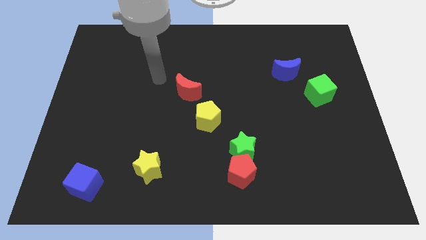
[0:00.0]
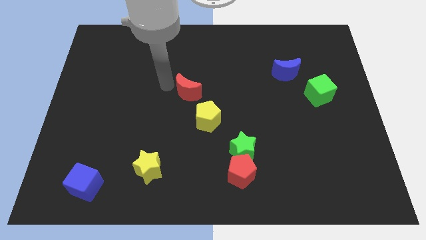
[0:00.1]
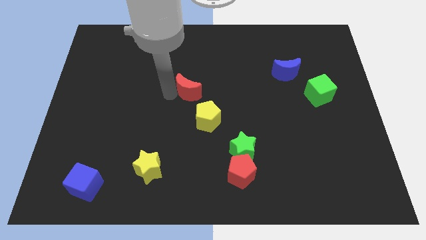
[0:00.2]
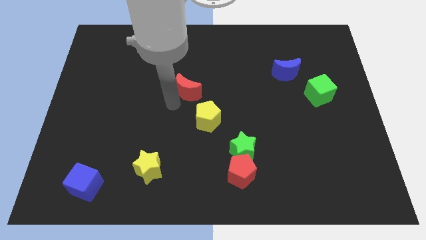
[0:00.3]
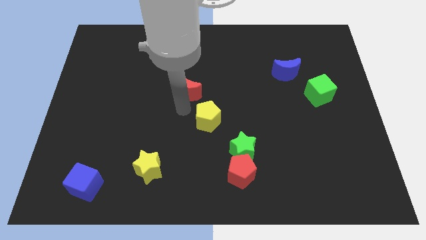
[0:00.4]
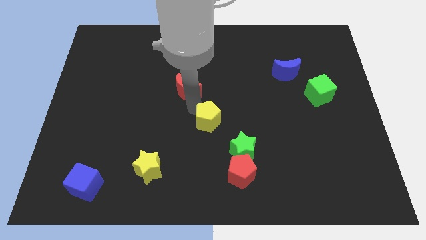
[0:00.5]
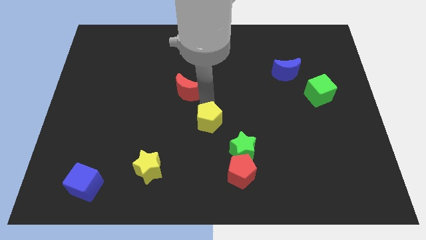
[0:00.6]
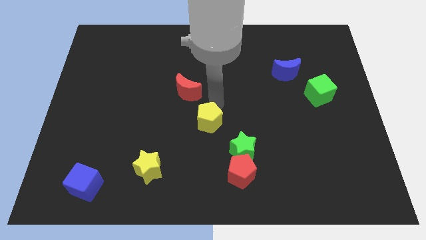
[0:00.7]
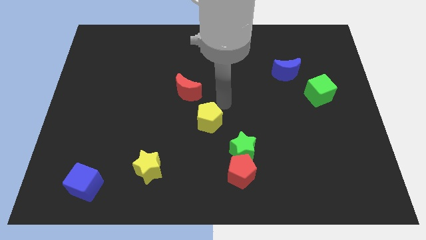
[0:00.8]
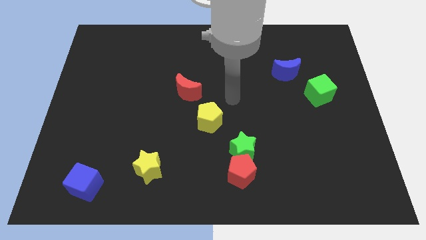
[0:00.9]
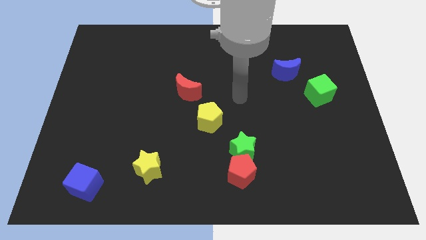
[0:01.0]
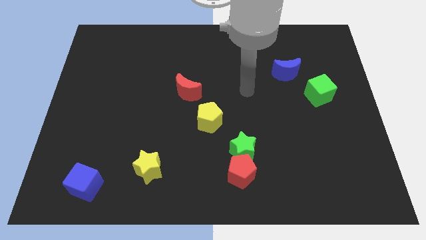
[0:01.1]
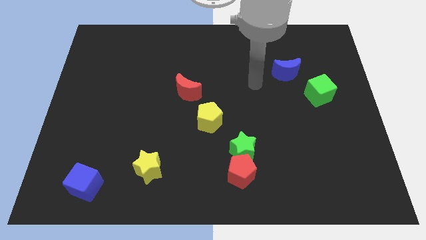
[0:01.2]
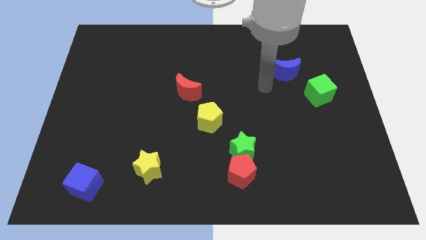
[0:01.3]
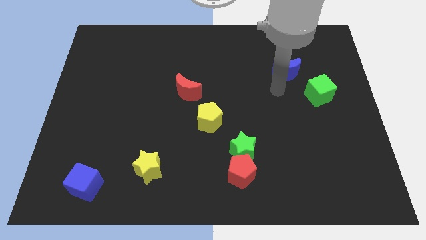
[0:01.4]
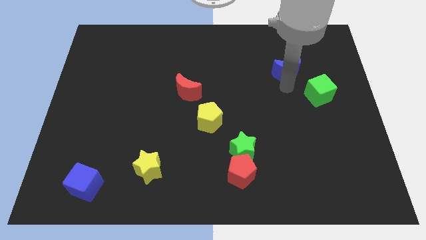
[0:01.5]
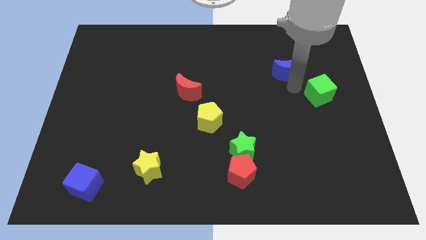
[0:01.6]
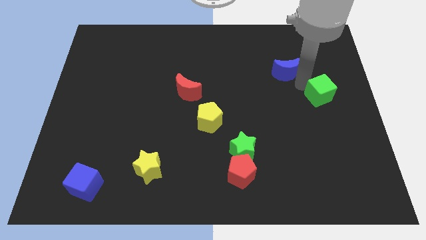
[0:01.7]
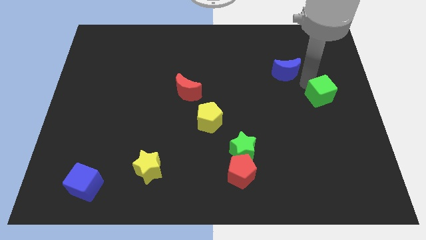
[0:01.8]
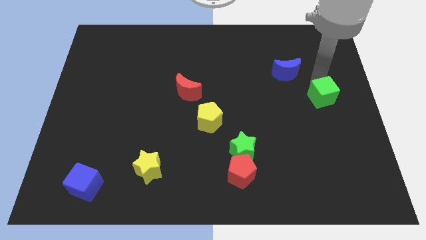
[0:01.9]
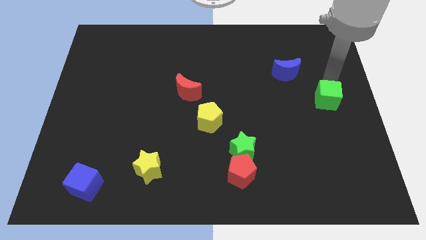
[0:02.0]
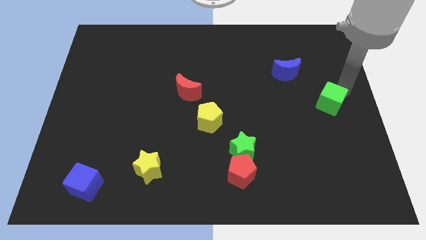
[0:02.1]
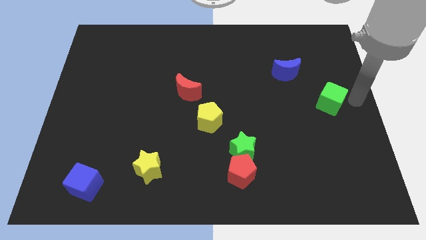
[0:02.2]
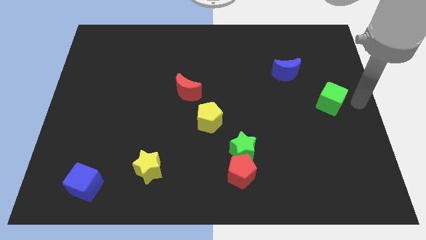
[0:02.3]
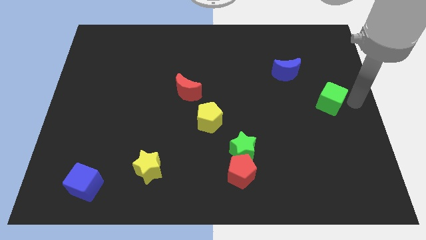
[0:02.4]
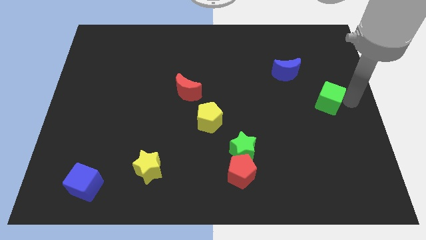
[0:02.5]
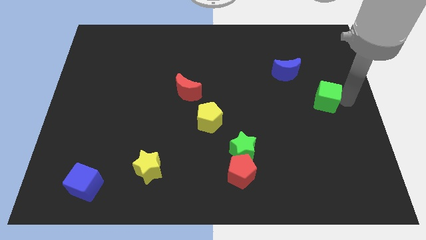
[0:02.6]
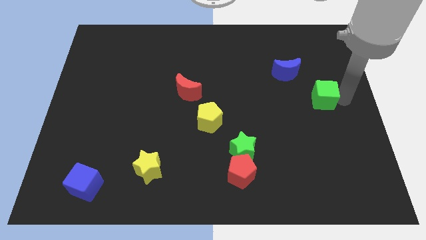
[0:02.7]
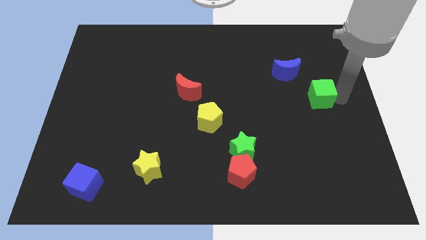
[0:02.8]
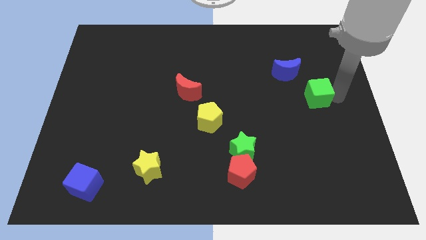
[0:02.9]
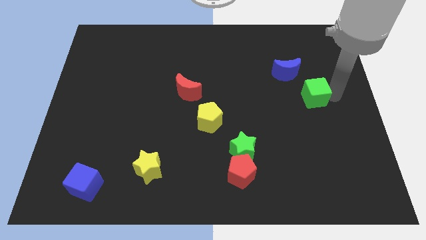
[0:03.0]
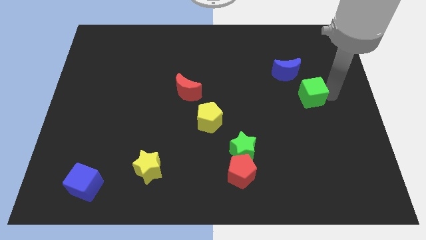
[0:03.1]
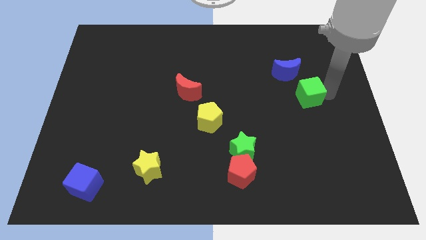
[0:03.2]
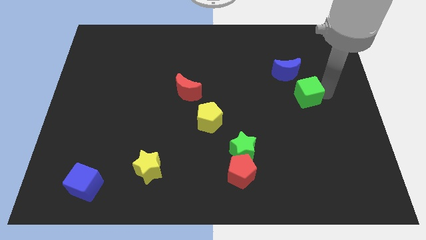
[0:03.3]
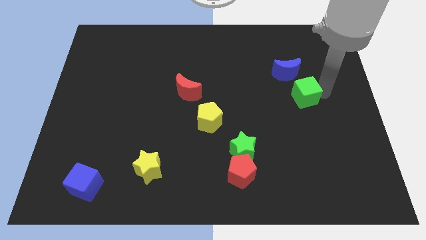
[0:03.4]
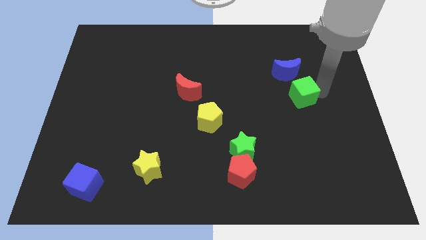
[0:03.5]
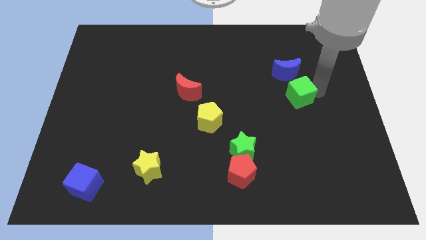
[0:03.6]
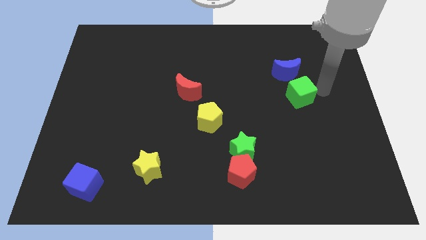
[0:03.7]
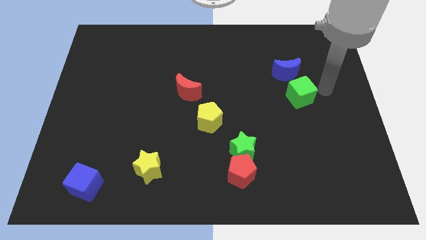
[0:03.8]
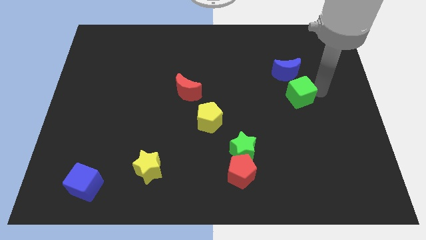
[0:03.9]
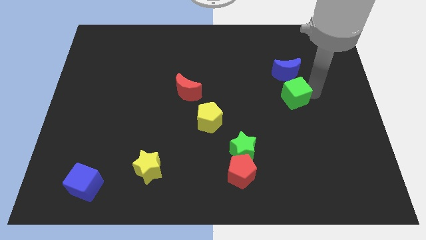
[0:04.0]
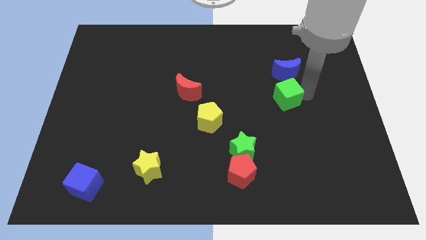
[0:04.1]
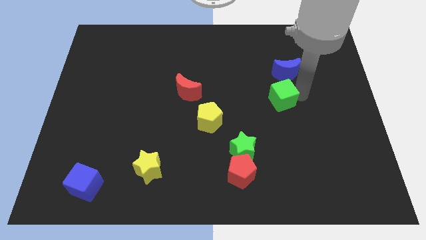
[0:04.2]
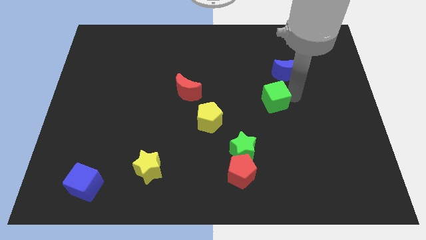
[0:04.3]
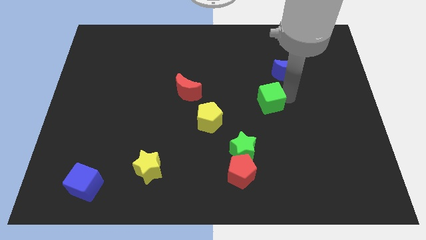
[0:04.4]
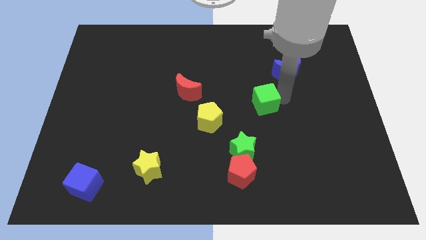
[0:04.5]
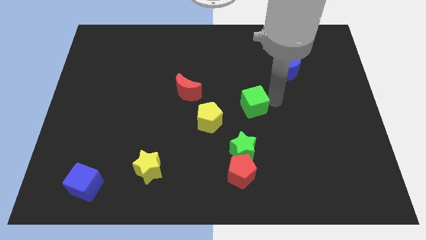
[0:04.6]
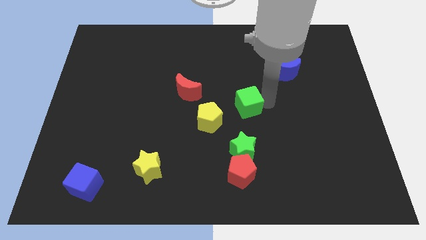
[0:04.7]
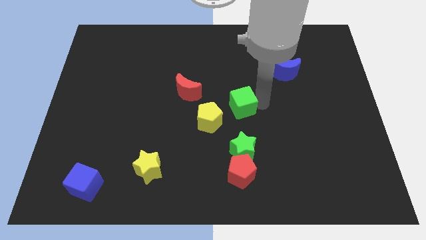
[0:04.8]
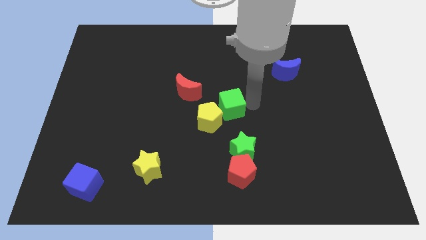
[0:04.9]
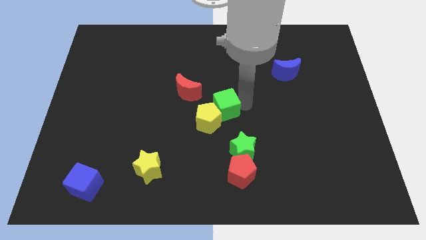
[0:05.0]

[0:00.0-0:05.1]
push the green cube towards the yellow pentagon

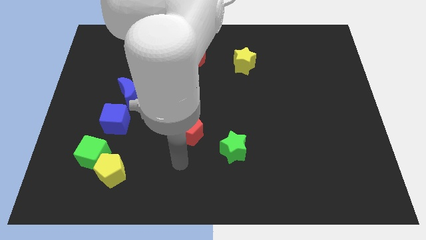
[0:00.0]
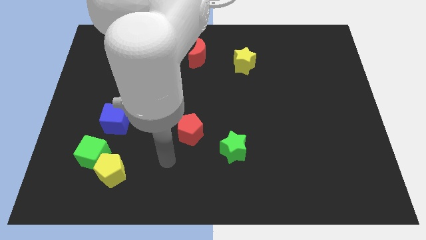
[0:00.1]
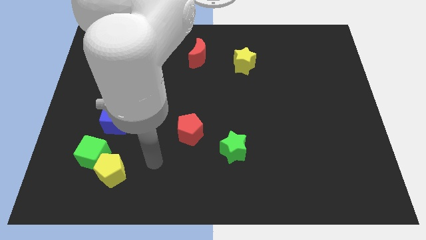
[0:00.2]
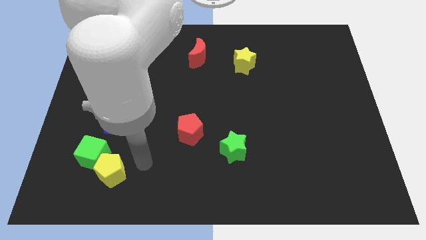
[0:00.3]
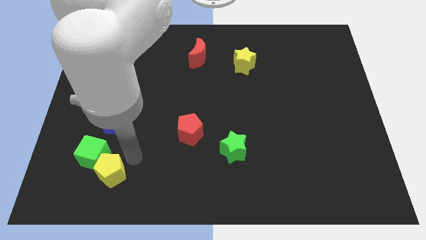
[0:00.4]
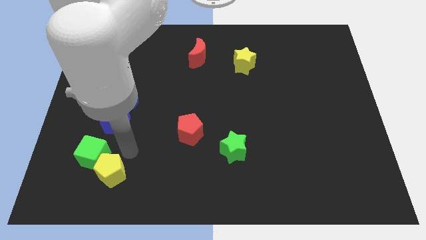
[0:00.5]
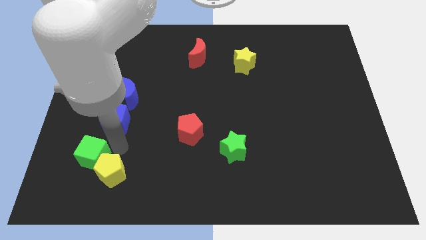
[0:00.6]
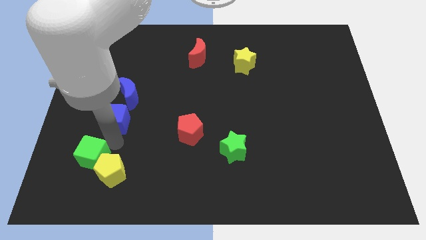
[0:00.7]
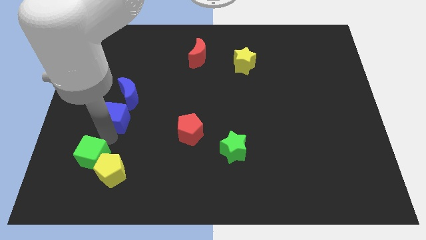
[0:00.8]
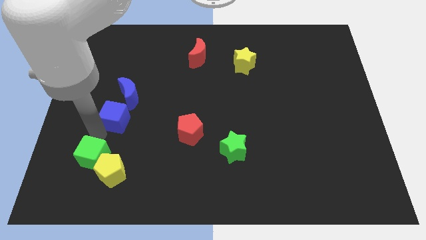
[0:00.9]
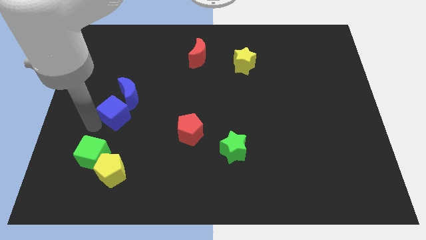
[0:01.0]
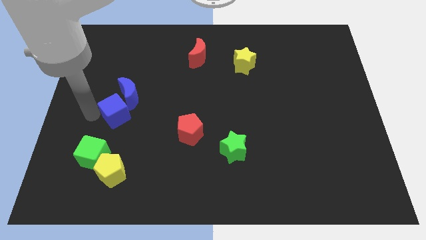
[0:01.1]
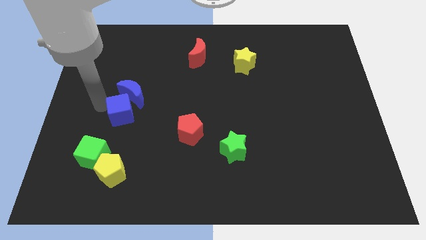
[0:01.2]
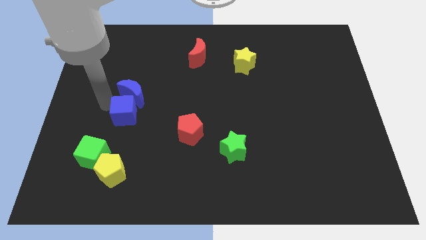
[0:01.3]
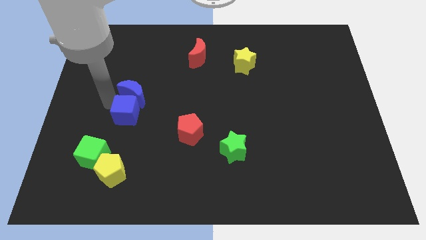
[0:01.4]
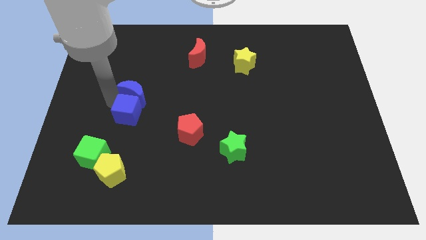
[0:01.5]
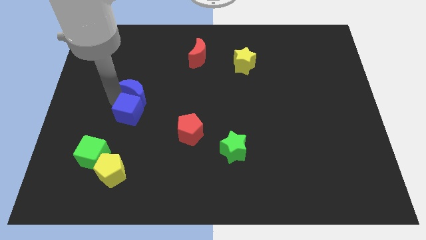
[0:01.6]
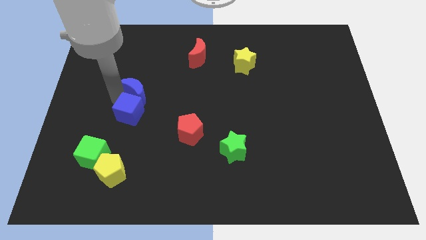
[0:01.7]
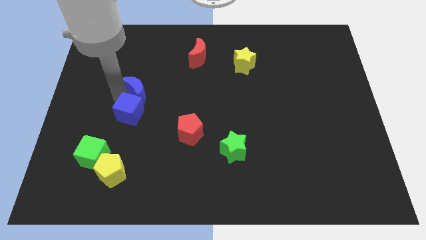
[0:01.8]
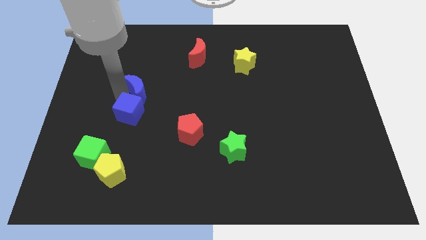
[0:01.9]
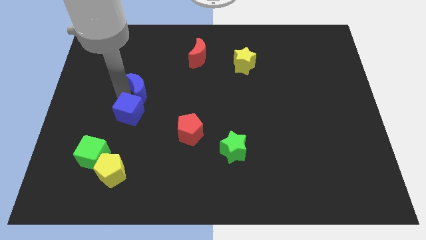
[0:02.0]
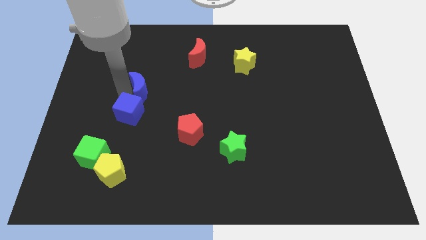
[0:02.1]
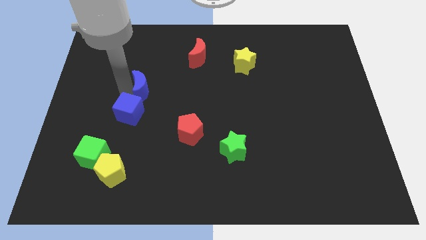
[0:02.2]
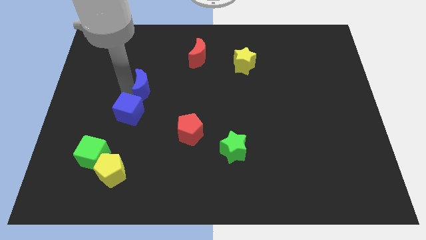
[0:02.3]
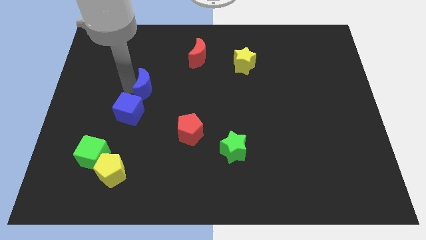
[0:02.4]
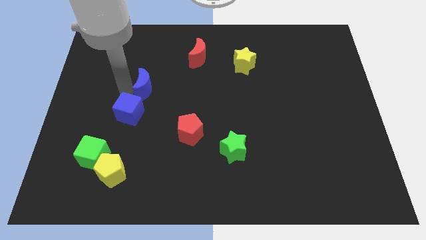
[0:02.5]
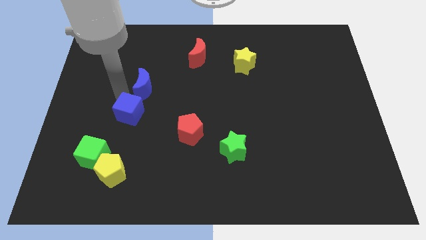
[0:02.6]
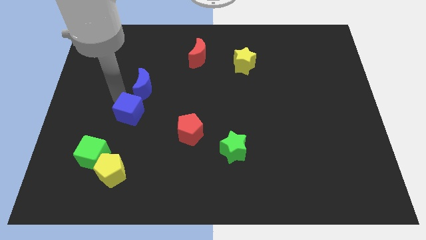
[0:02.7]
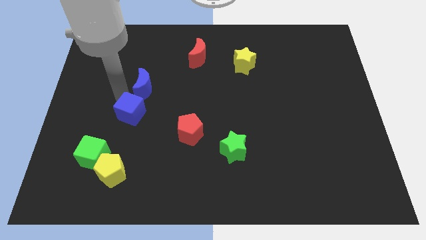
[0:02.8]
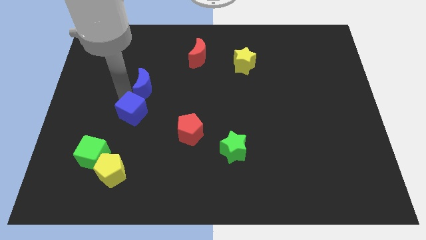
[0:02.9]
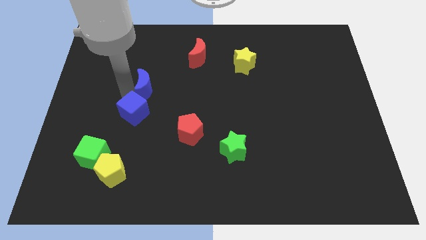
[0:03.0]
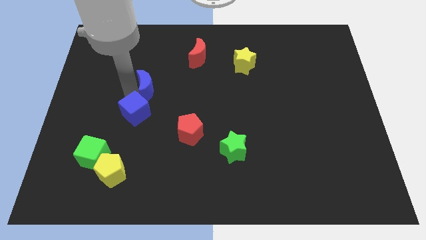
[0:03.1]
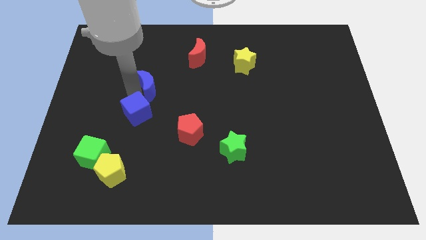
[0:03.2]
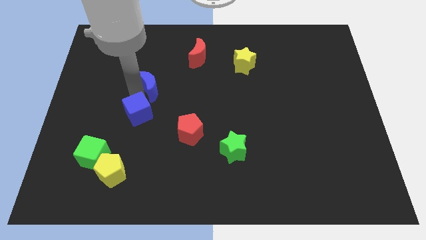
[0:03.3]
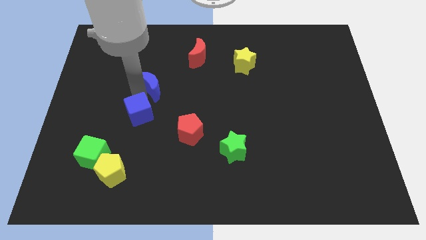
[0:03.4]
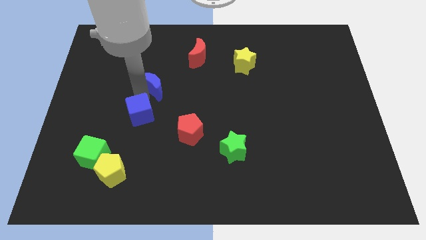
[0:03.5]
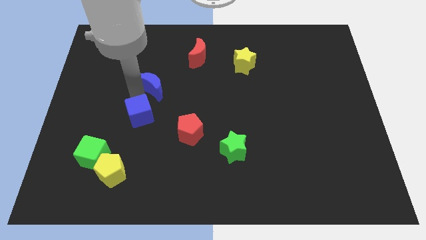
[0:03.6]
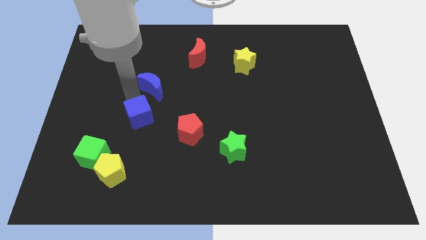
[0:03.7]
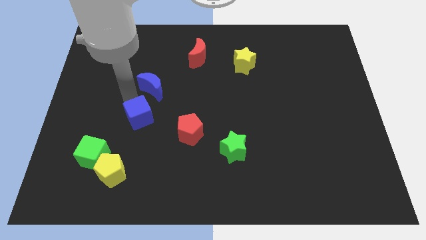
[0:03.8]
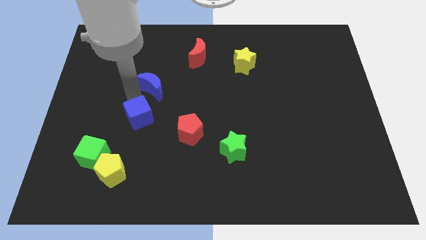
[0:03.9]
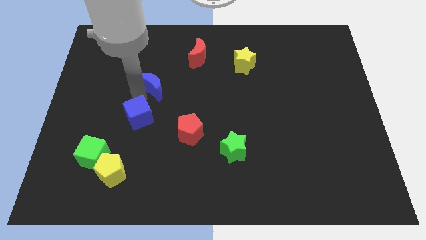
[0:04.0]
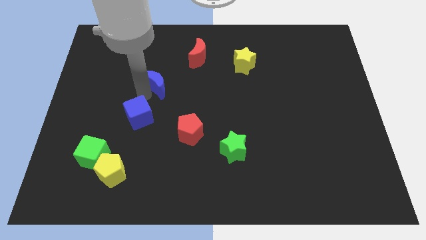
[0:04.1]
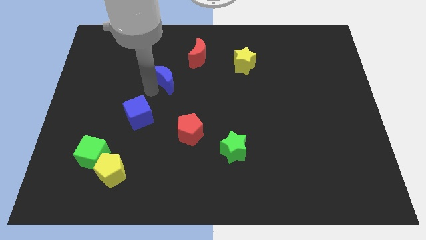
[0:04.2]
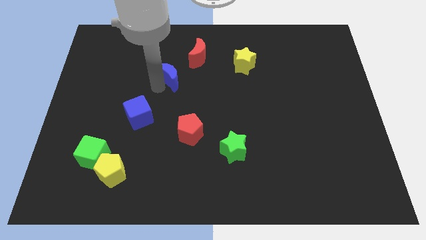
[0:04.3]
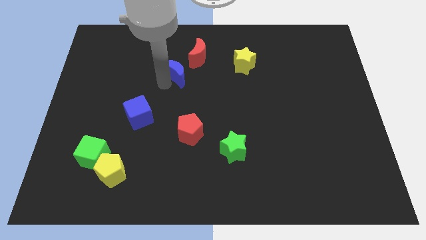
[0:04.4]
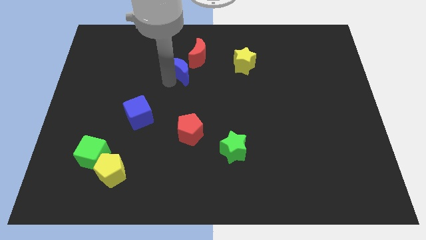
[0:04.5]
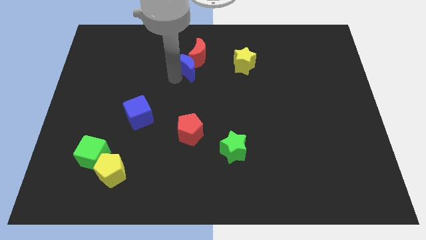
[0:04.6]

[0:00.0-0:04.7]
put the blue moon to the red moon
